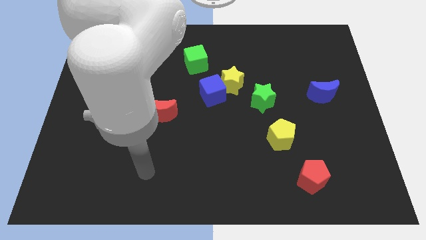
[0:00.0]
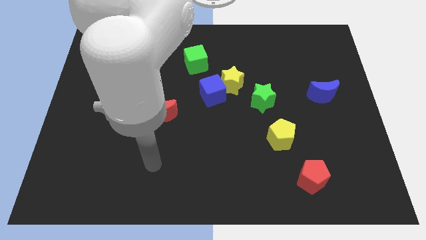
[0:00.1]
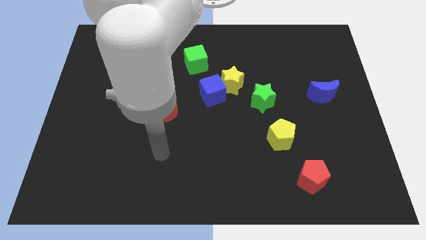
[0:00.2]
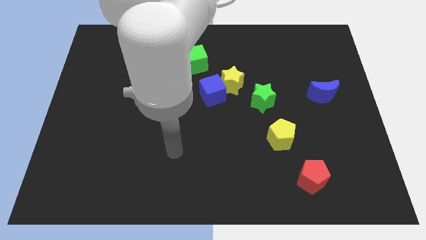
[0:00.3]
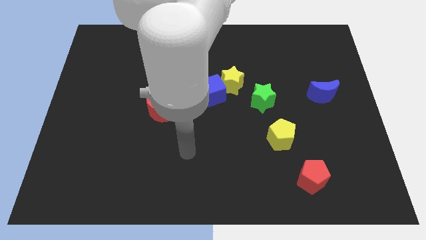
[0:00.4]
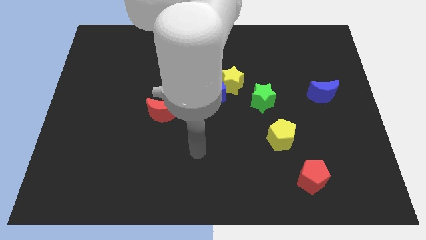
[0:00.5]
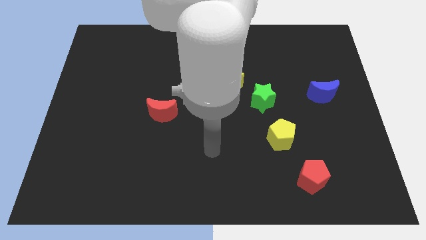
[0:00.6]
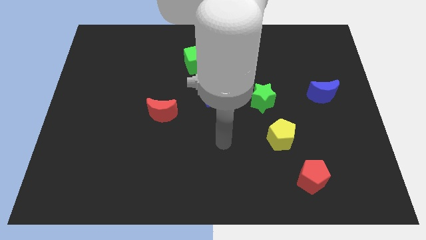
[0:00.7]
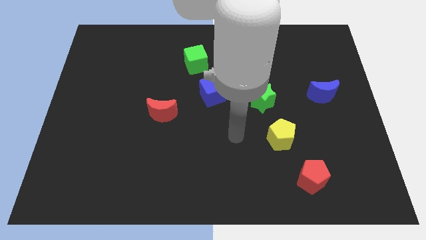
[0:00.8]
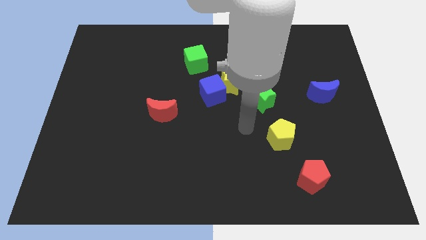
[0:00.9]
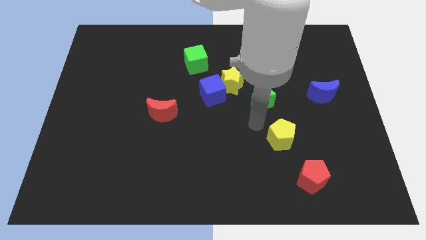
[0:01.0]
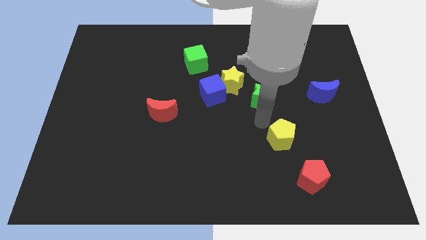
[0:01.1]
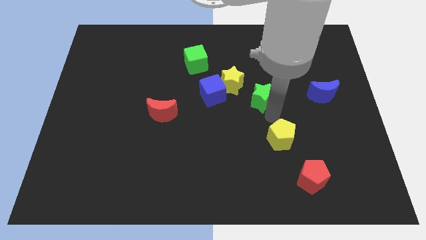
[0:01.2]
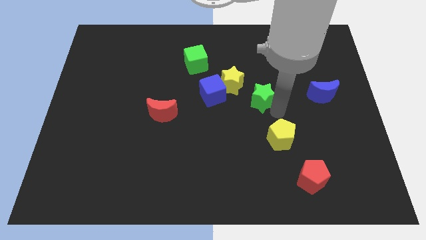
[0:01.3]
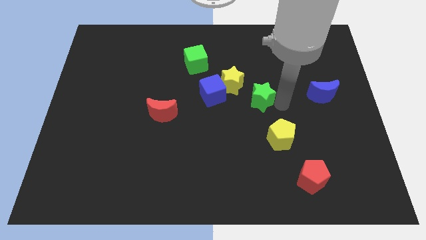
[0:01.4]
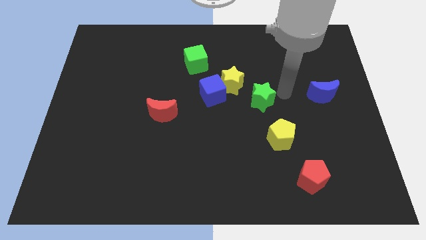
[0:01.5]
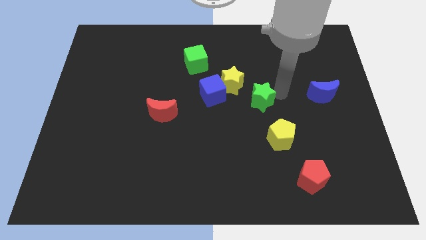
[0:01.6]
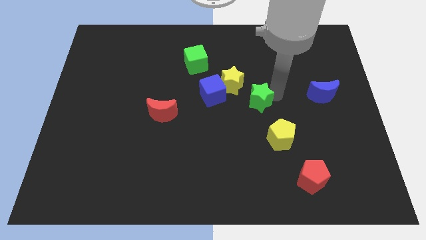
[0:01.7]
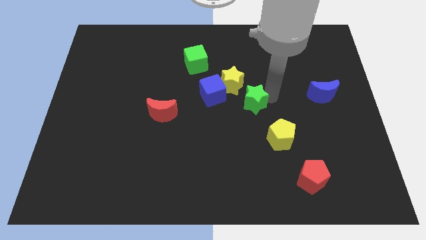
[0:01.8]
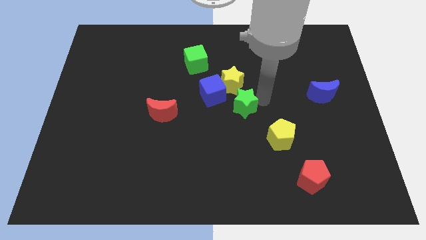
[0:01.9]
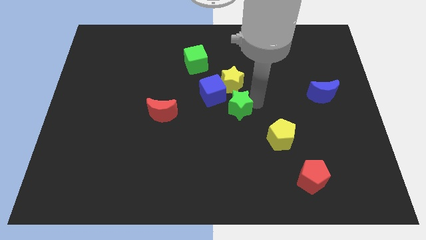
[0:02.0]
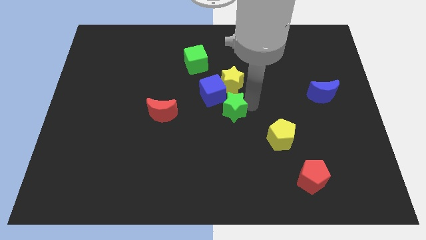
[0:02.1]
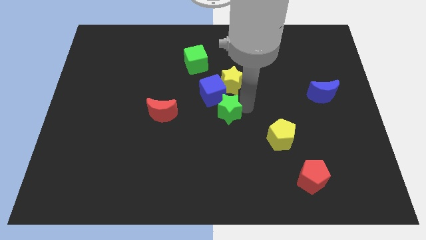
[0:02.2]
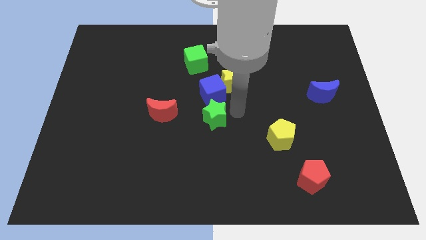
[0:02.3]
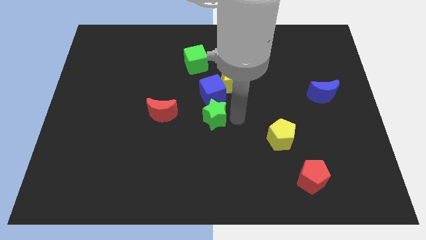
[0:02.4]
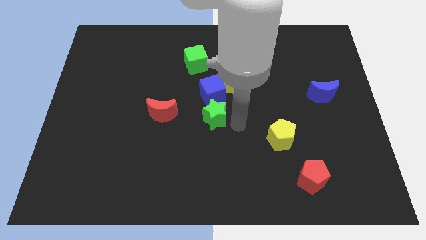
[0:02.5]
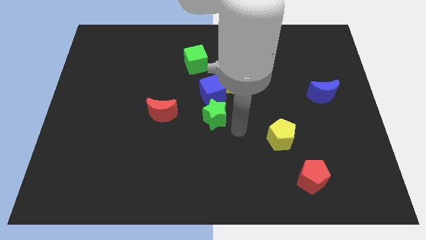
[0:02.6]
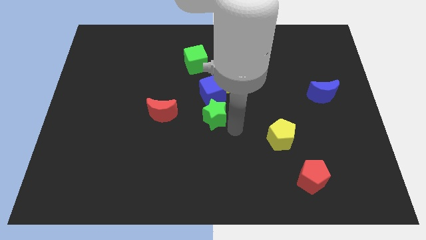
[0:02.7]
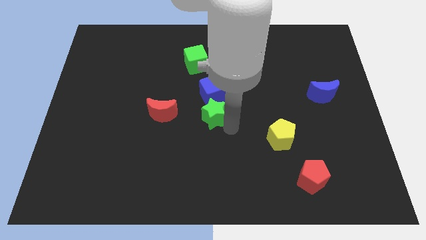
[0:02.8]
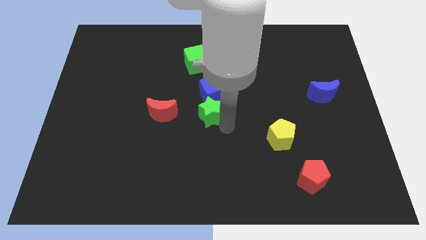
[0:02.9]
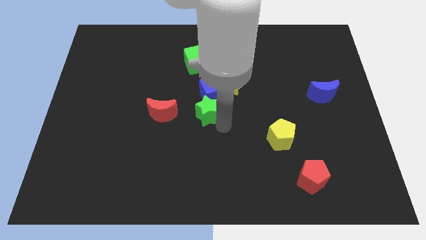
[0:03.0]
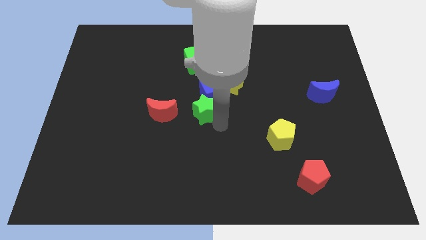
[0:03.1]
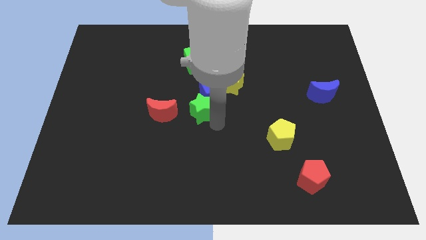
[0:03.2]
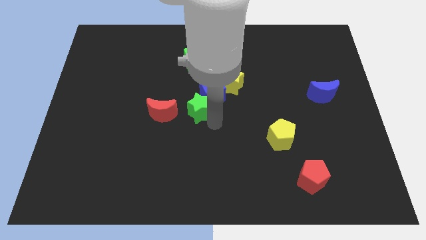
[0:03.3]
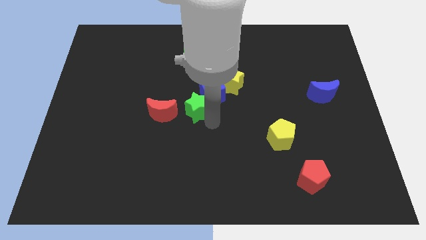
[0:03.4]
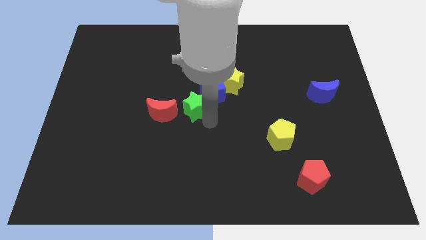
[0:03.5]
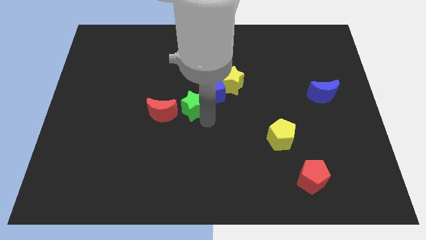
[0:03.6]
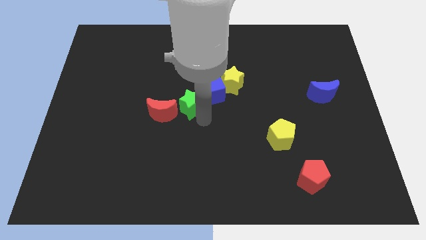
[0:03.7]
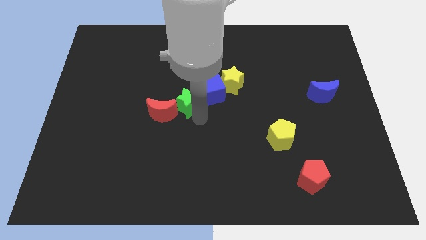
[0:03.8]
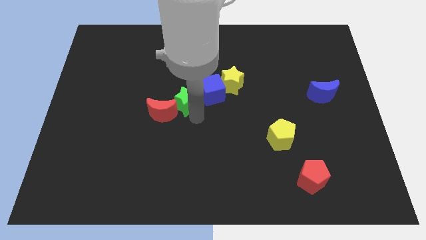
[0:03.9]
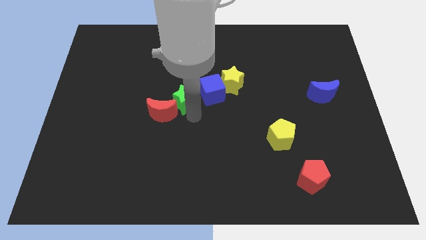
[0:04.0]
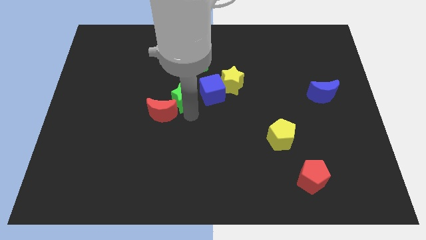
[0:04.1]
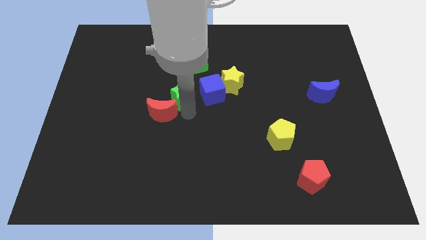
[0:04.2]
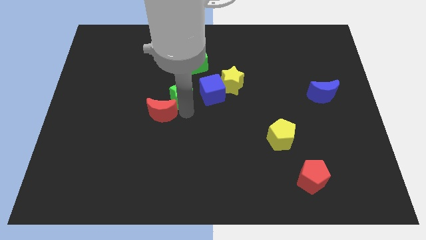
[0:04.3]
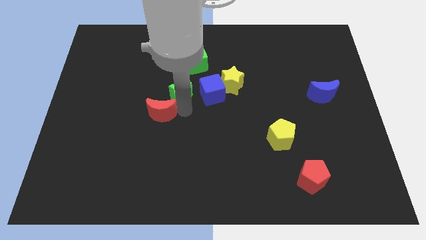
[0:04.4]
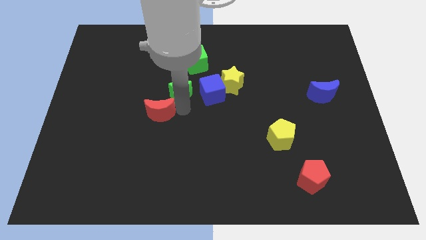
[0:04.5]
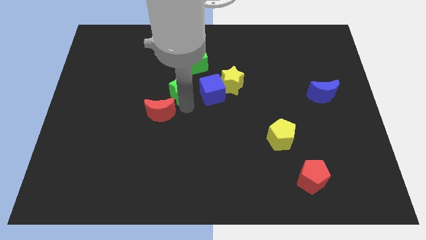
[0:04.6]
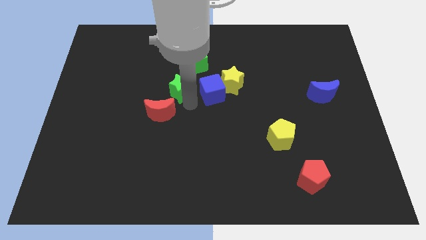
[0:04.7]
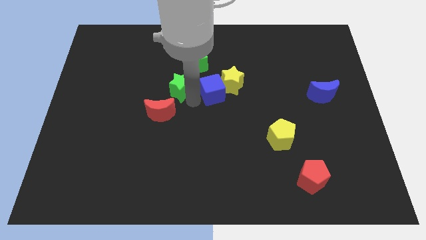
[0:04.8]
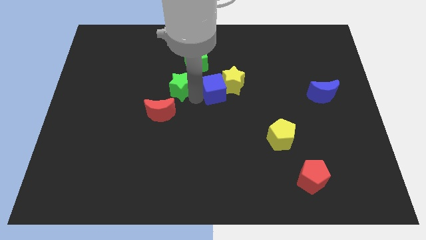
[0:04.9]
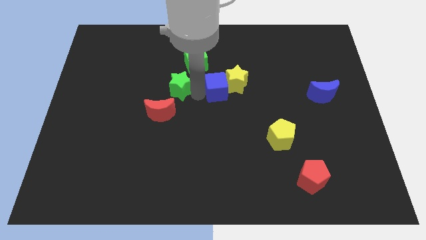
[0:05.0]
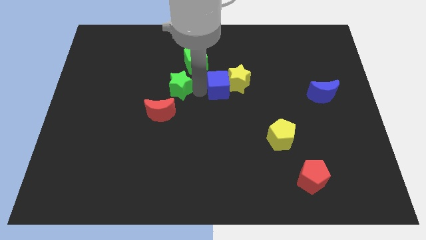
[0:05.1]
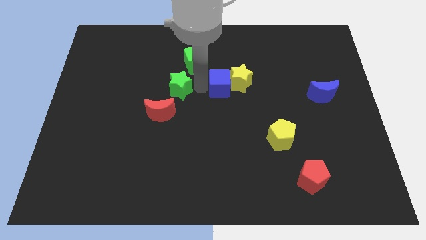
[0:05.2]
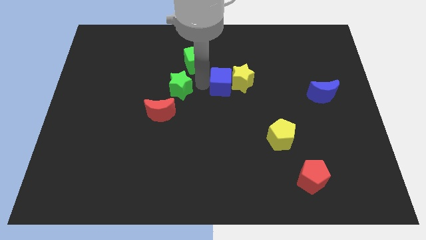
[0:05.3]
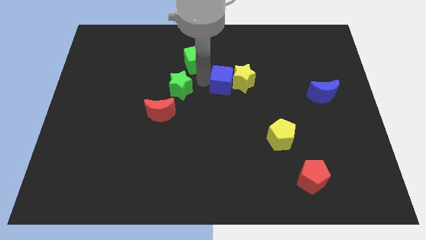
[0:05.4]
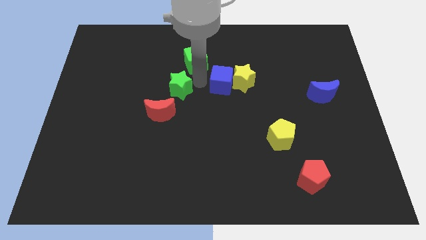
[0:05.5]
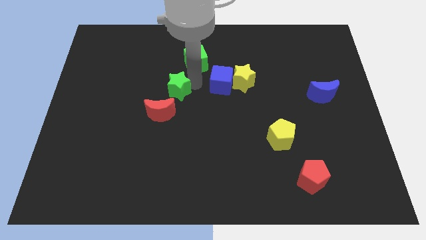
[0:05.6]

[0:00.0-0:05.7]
push the green star left

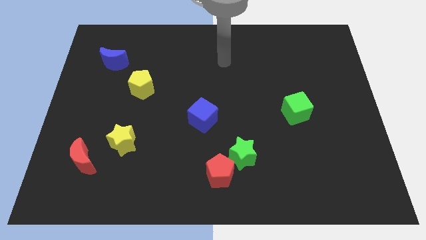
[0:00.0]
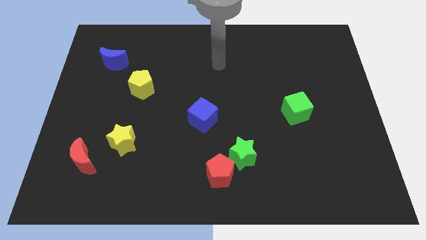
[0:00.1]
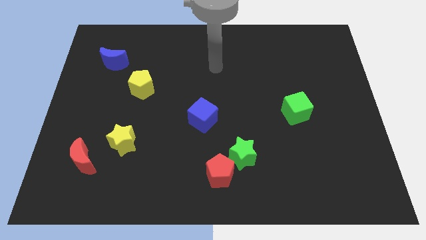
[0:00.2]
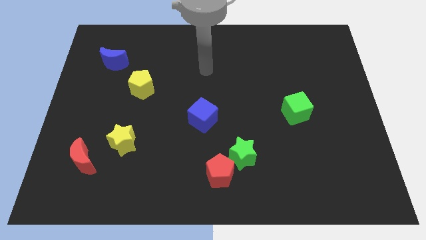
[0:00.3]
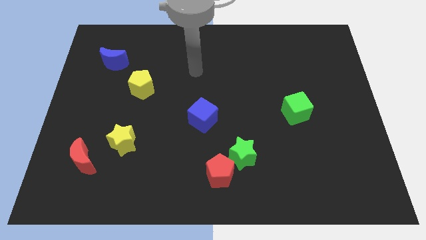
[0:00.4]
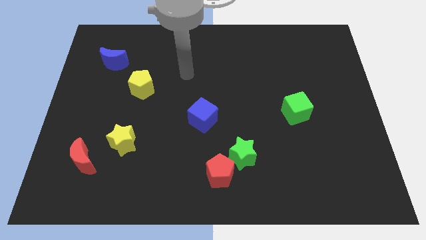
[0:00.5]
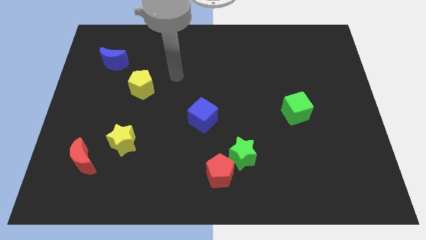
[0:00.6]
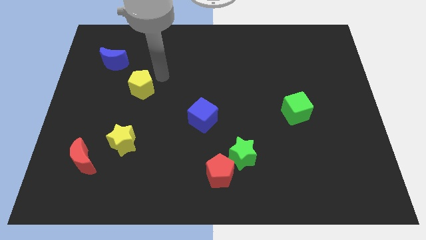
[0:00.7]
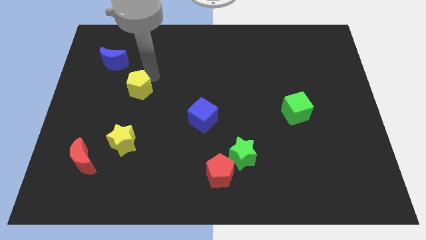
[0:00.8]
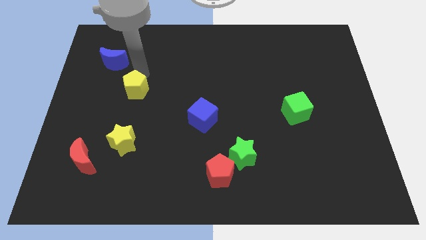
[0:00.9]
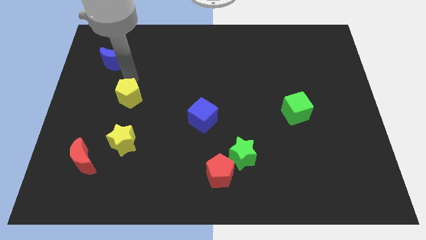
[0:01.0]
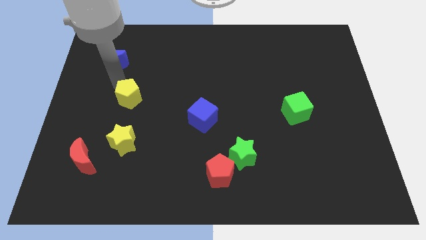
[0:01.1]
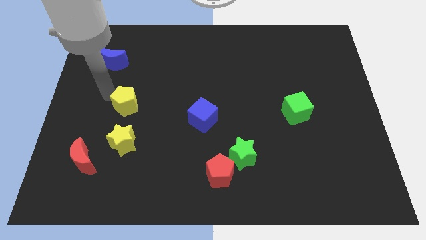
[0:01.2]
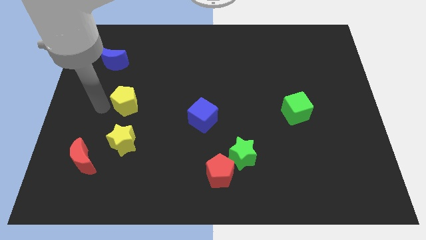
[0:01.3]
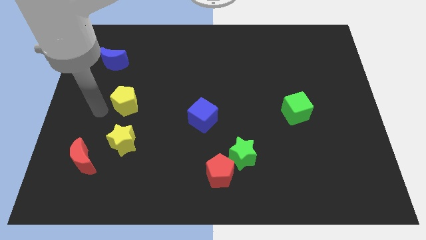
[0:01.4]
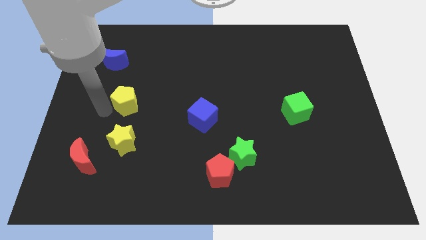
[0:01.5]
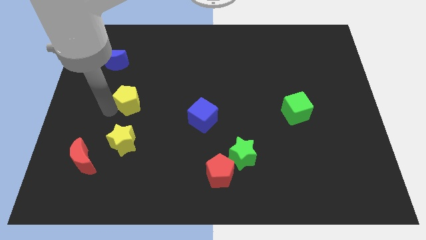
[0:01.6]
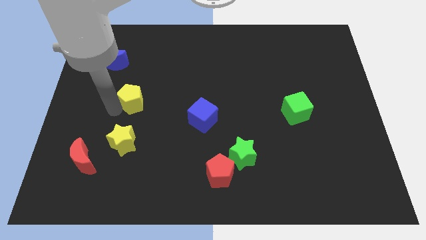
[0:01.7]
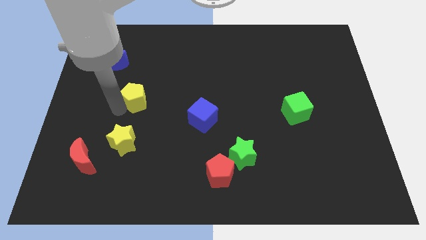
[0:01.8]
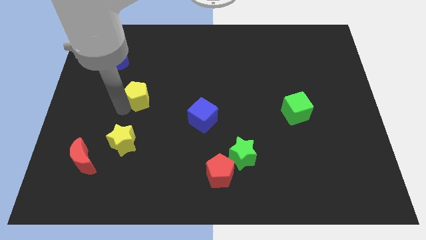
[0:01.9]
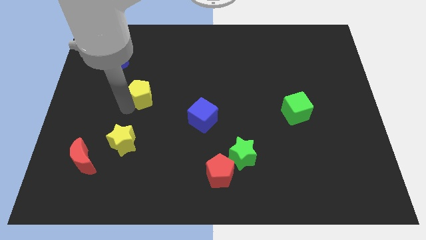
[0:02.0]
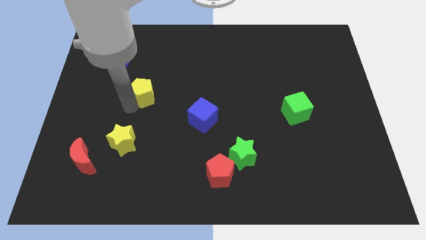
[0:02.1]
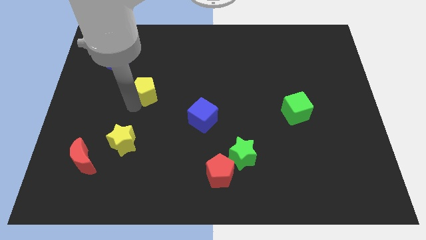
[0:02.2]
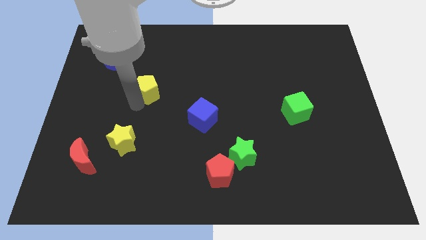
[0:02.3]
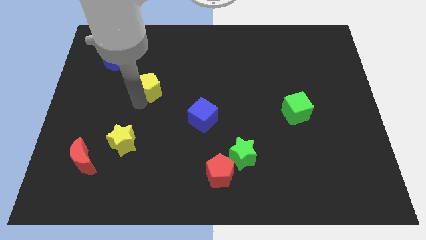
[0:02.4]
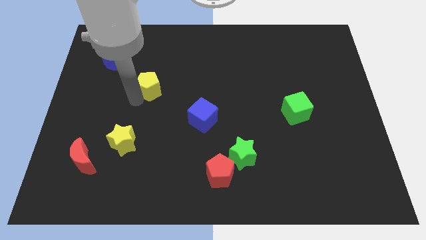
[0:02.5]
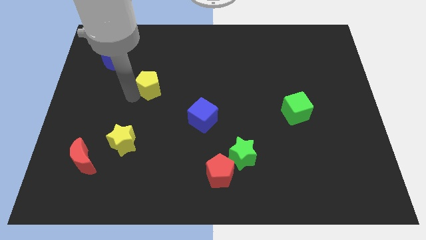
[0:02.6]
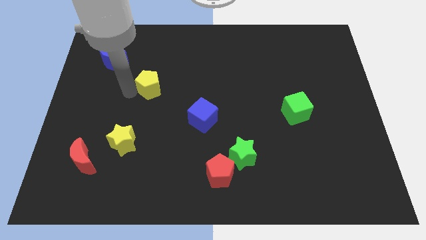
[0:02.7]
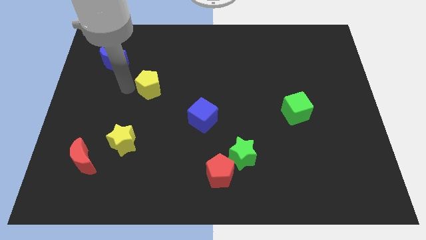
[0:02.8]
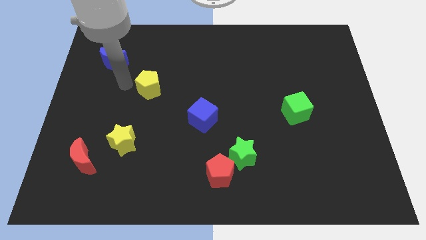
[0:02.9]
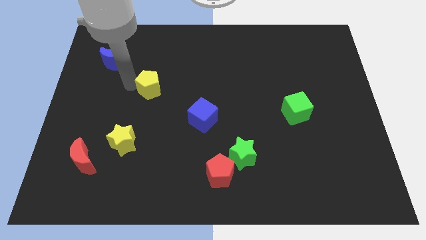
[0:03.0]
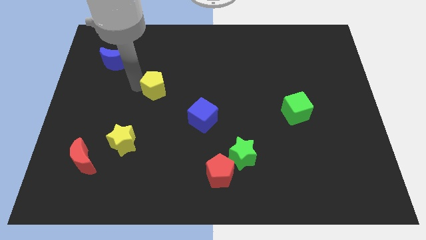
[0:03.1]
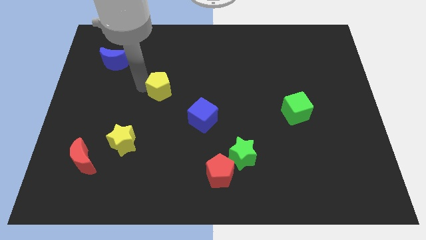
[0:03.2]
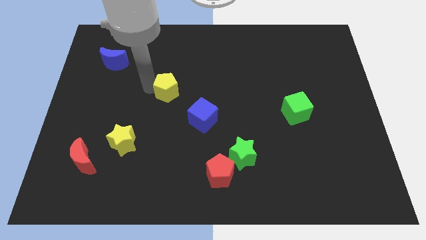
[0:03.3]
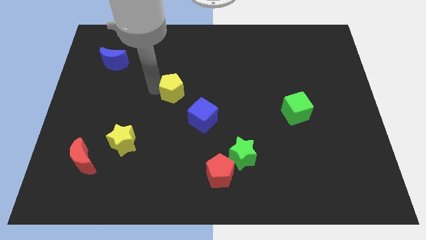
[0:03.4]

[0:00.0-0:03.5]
move the yellow pentagon to the right a little bit
